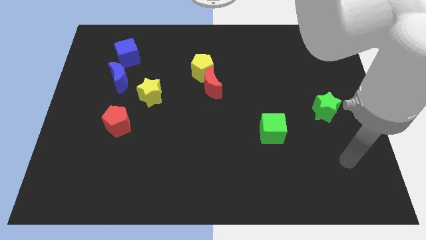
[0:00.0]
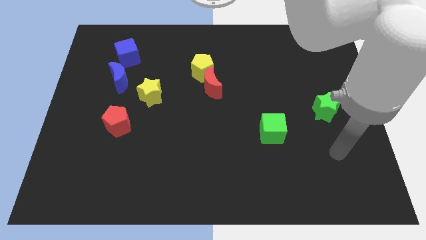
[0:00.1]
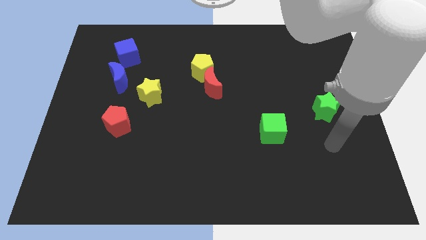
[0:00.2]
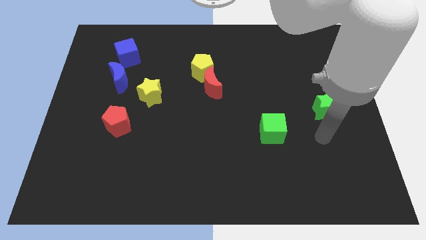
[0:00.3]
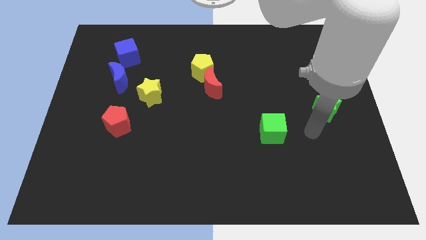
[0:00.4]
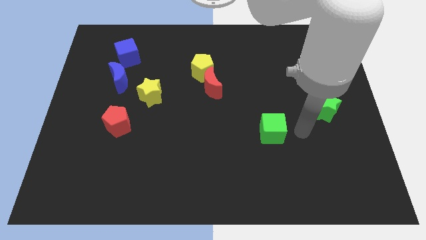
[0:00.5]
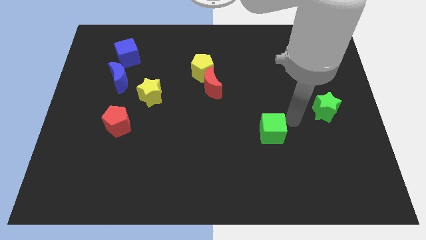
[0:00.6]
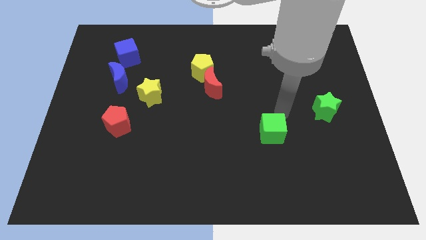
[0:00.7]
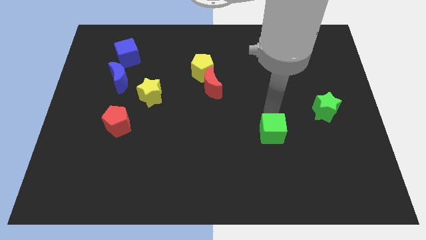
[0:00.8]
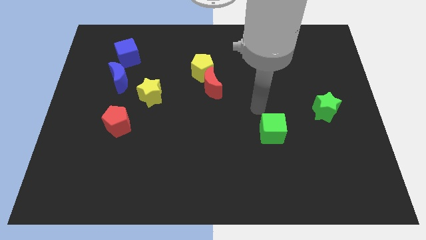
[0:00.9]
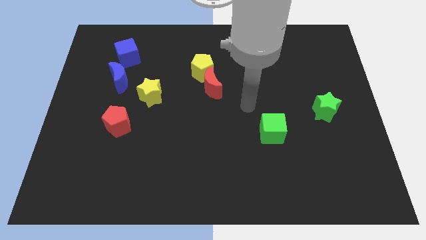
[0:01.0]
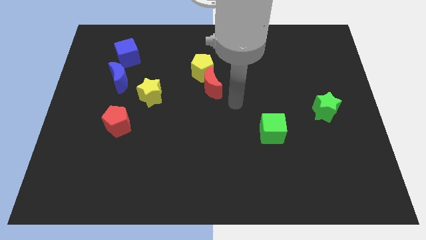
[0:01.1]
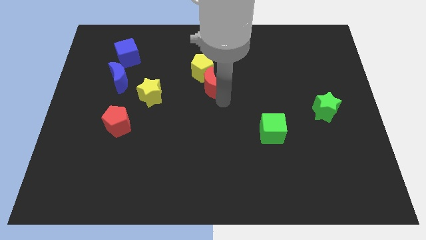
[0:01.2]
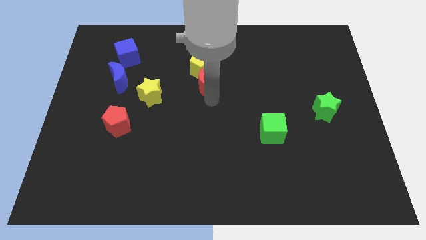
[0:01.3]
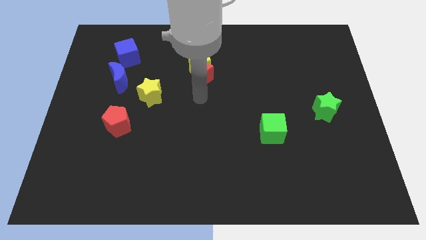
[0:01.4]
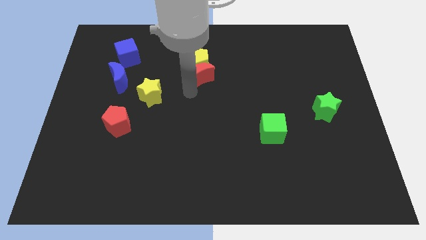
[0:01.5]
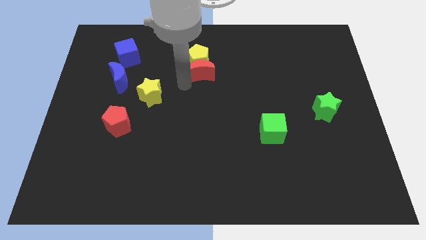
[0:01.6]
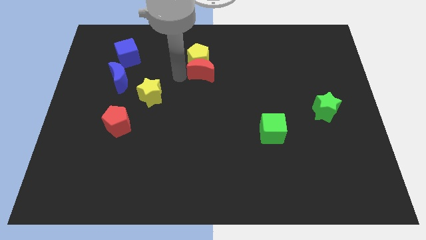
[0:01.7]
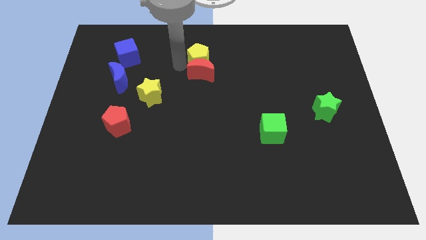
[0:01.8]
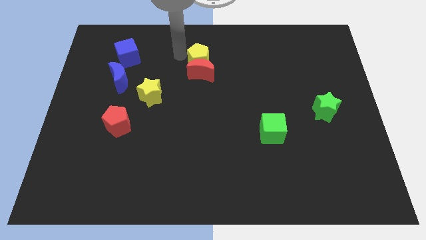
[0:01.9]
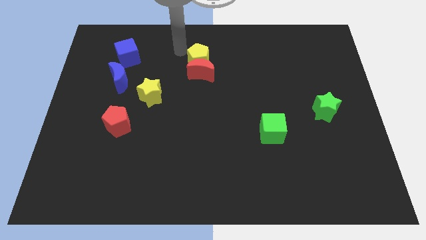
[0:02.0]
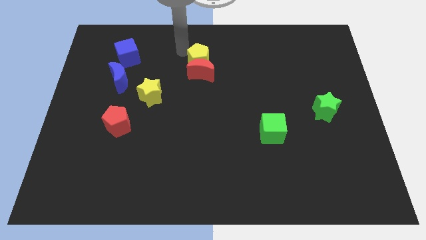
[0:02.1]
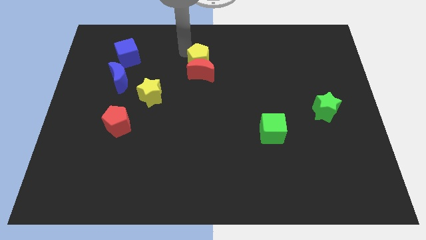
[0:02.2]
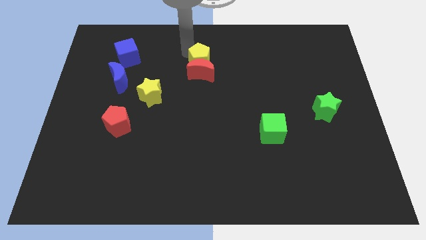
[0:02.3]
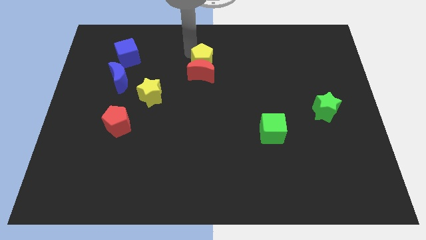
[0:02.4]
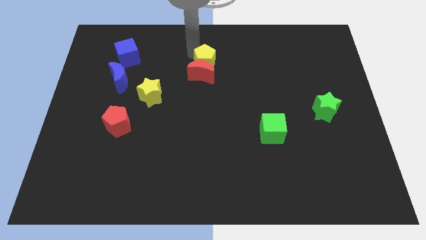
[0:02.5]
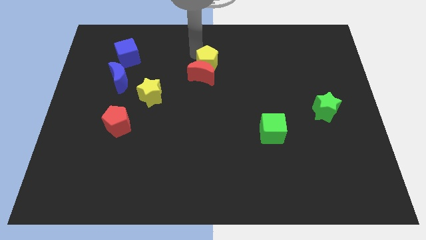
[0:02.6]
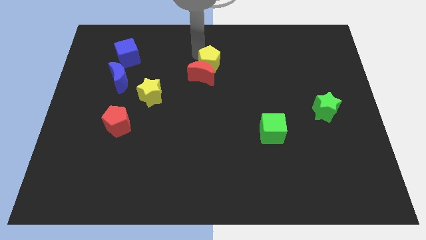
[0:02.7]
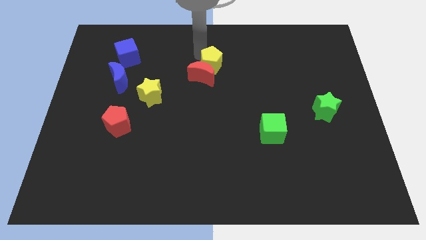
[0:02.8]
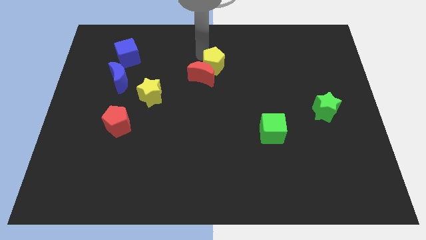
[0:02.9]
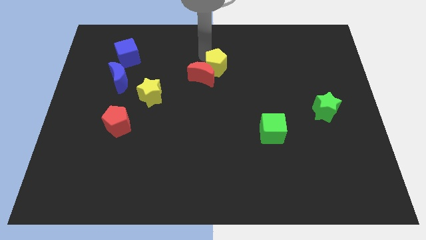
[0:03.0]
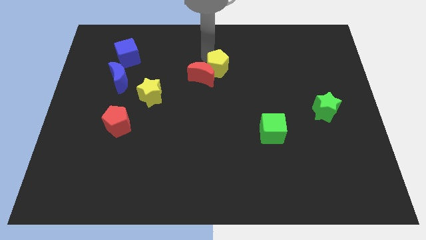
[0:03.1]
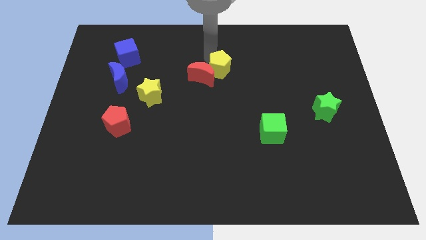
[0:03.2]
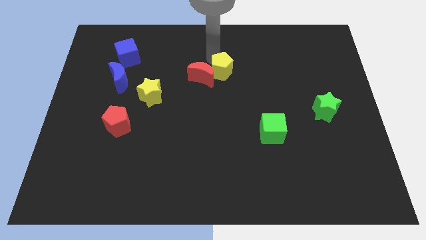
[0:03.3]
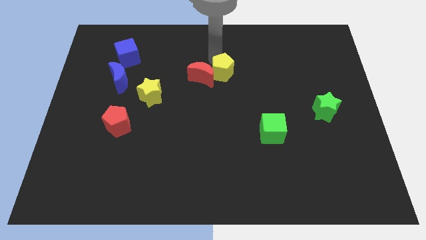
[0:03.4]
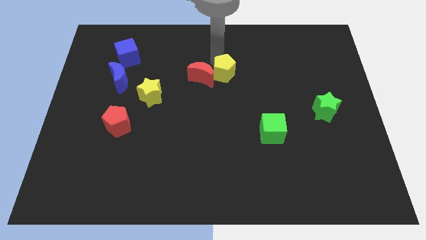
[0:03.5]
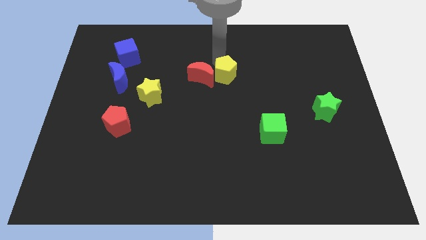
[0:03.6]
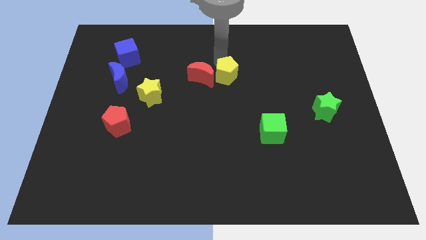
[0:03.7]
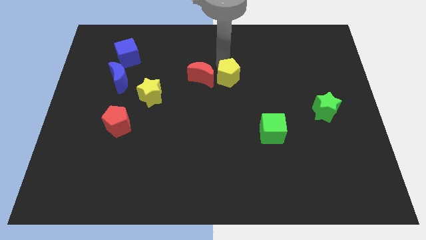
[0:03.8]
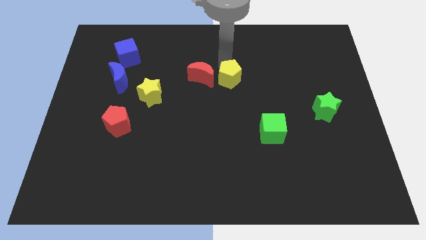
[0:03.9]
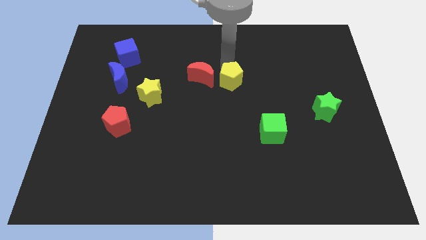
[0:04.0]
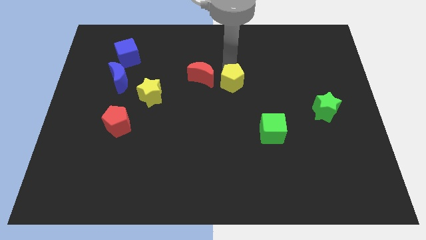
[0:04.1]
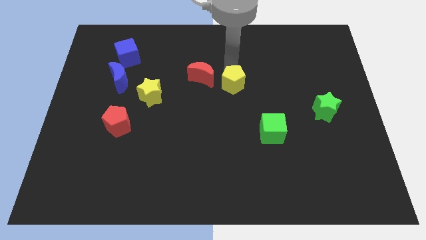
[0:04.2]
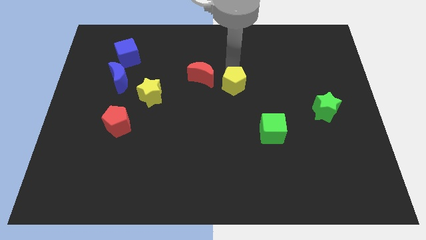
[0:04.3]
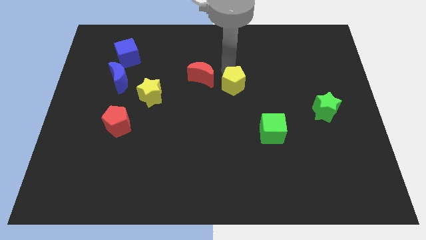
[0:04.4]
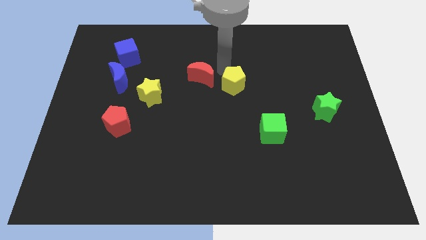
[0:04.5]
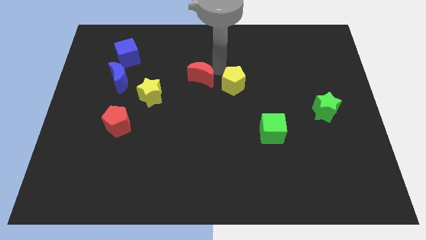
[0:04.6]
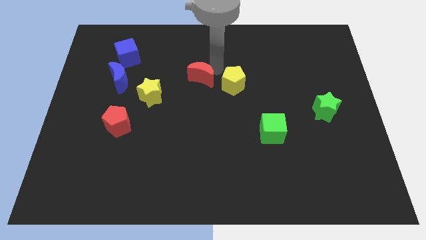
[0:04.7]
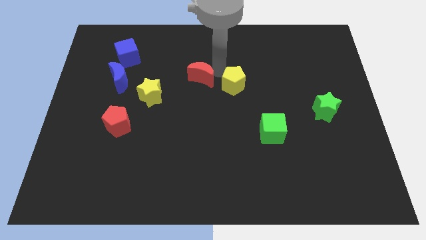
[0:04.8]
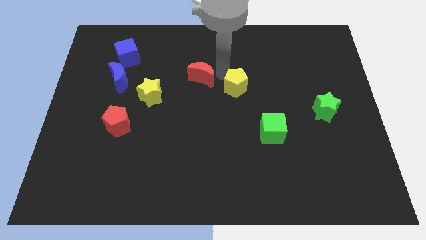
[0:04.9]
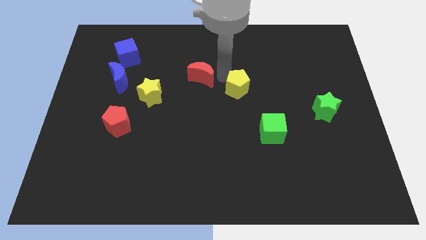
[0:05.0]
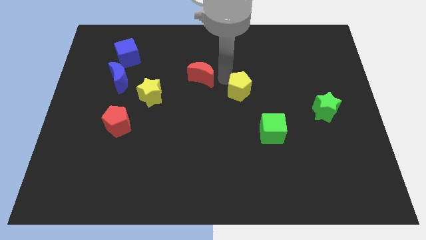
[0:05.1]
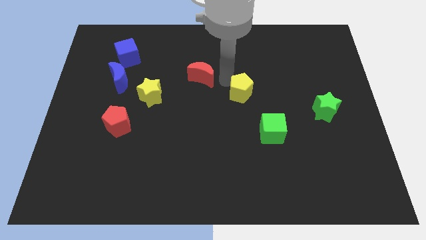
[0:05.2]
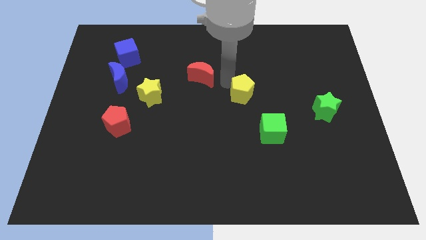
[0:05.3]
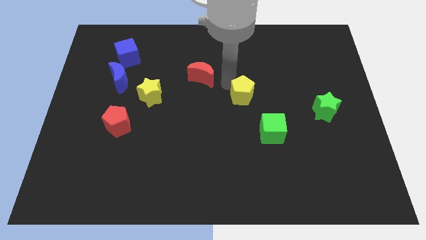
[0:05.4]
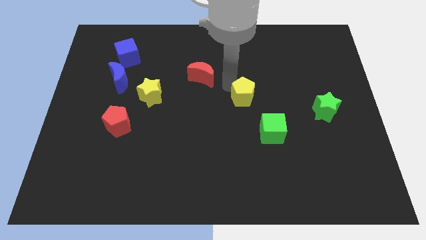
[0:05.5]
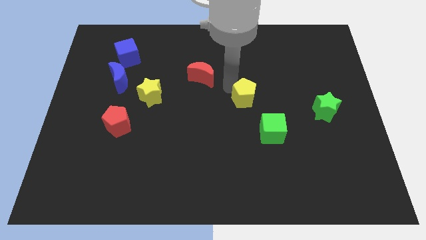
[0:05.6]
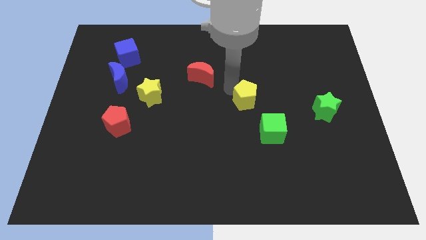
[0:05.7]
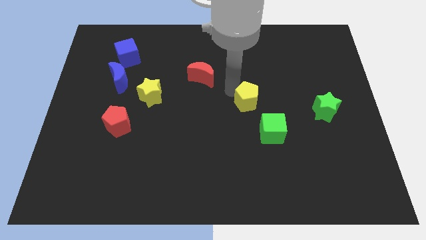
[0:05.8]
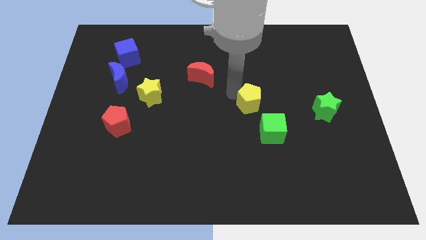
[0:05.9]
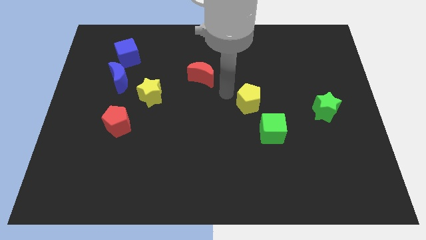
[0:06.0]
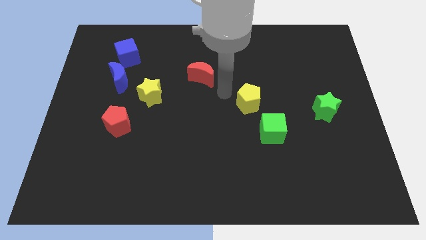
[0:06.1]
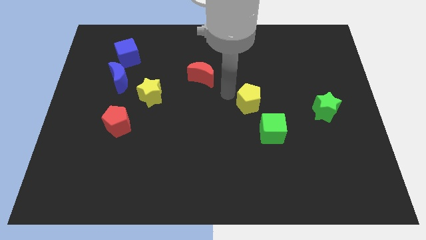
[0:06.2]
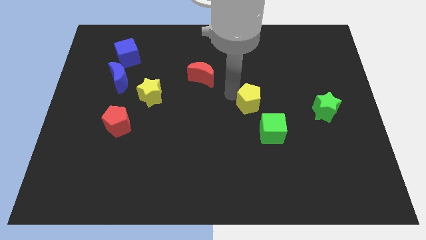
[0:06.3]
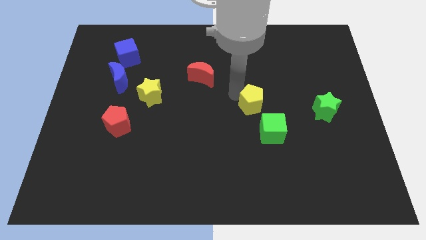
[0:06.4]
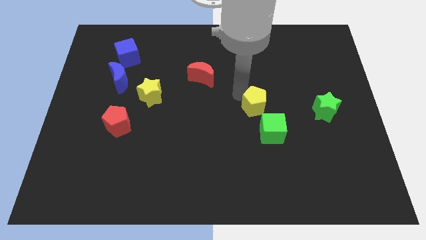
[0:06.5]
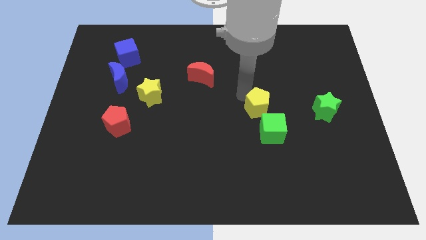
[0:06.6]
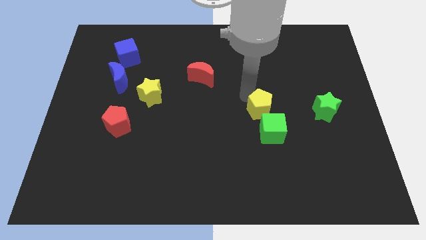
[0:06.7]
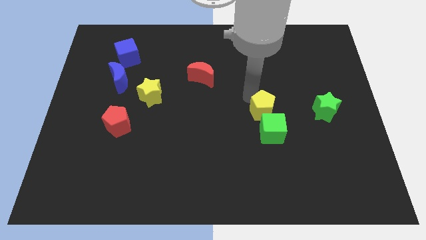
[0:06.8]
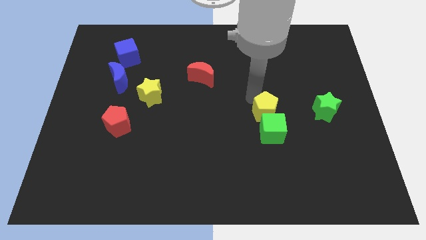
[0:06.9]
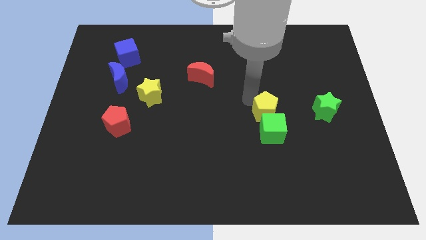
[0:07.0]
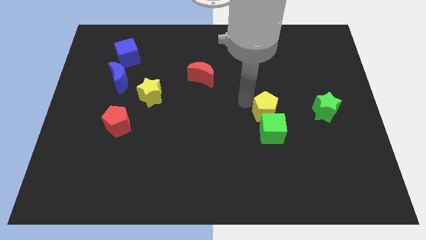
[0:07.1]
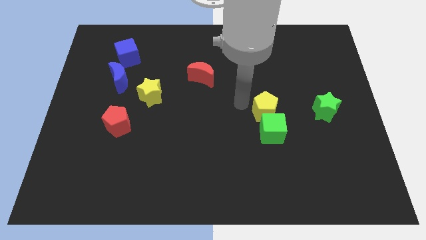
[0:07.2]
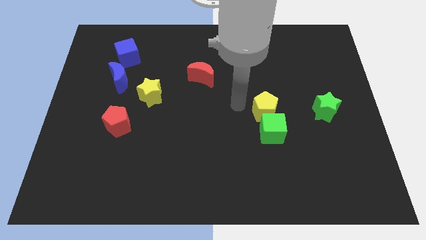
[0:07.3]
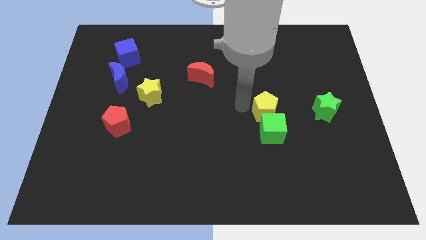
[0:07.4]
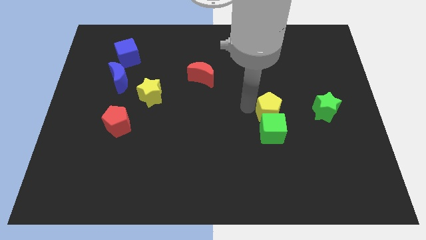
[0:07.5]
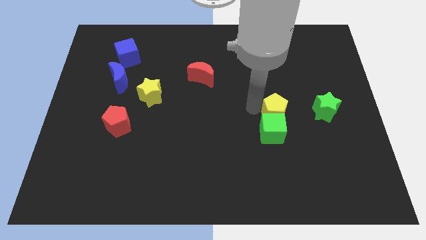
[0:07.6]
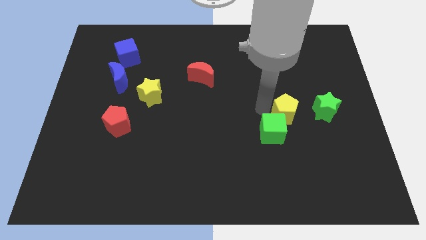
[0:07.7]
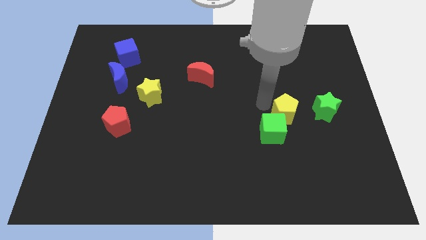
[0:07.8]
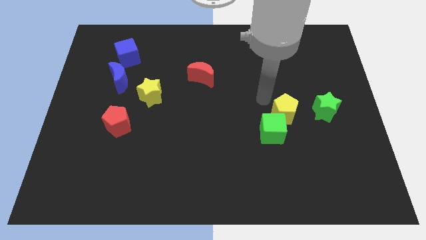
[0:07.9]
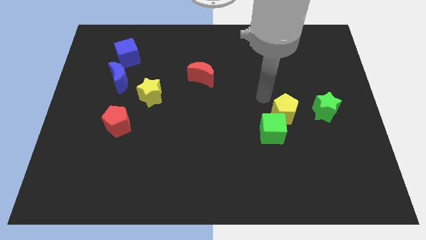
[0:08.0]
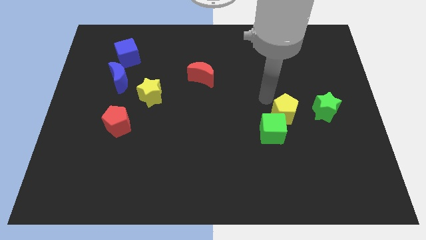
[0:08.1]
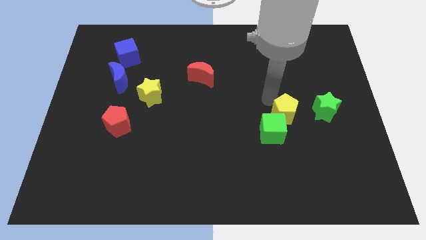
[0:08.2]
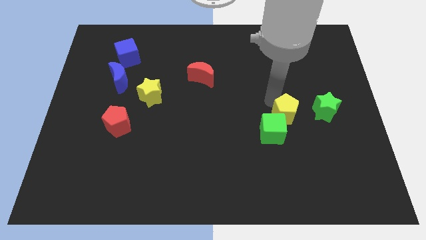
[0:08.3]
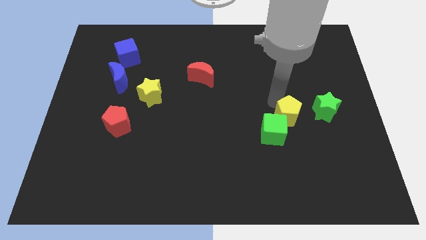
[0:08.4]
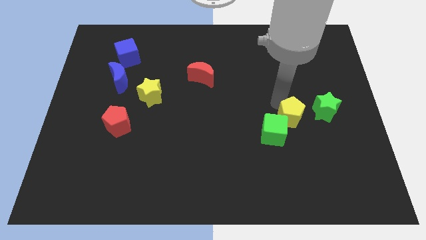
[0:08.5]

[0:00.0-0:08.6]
slide the yellow pentagon to the bottom left side of the green star
